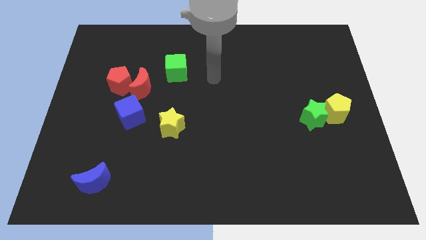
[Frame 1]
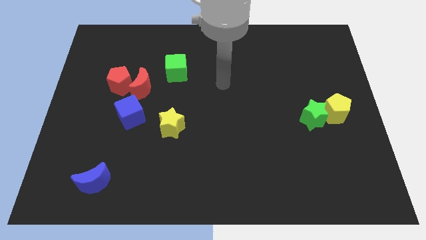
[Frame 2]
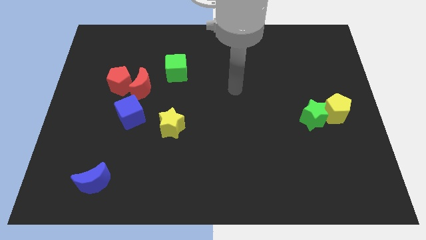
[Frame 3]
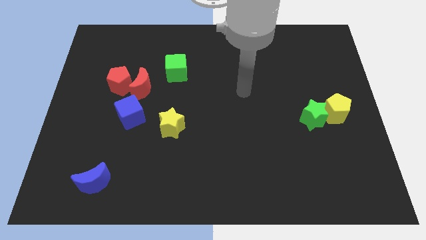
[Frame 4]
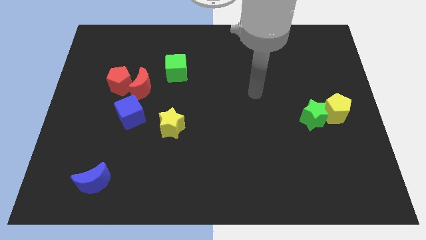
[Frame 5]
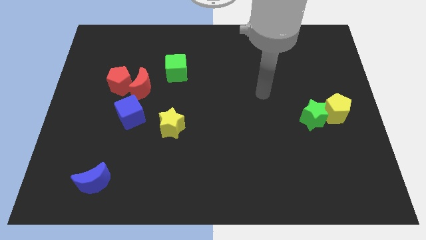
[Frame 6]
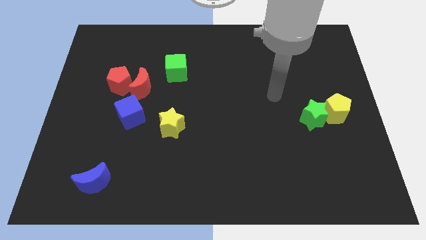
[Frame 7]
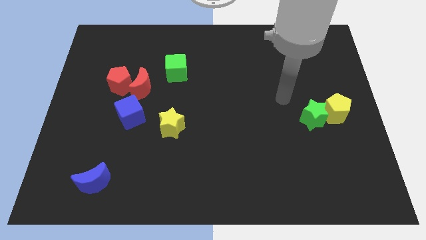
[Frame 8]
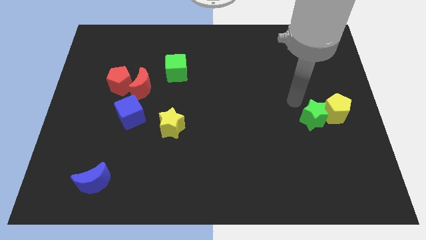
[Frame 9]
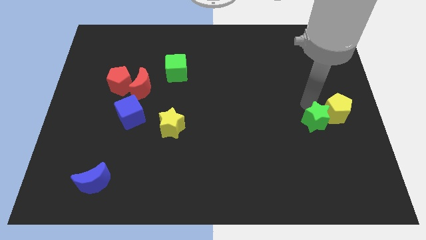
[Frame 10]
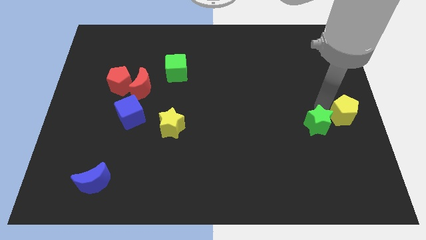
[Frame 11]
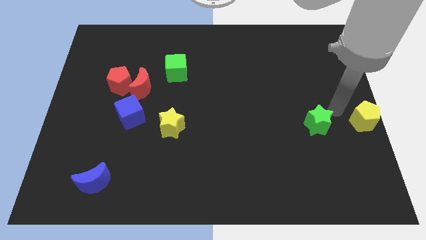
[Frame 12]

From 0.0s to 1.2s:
pull the green star apart from the yellow pentagon

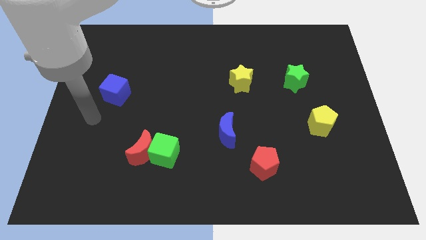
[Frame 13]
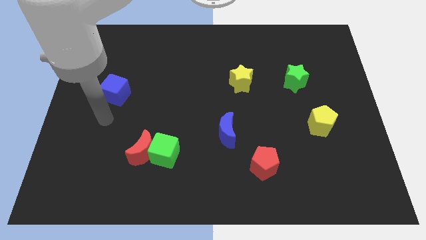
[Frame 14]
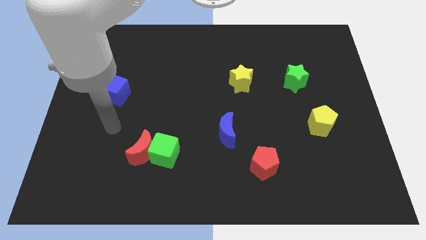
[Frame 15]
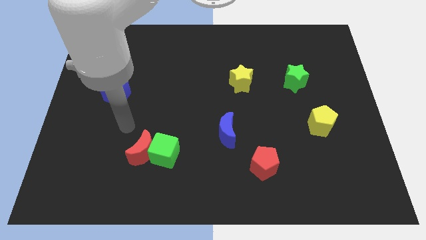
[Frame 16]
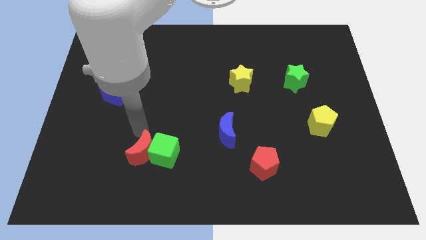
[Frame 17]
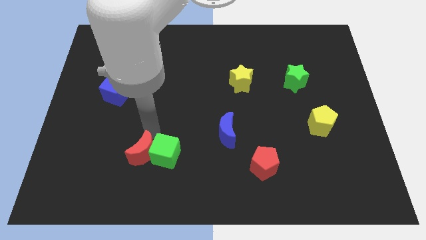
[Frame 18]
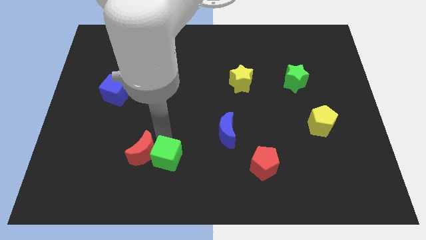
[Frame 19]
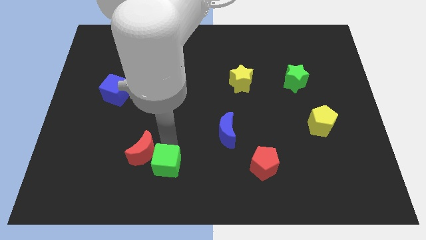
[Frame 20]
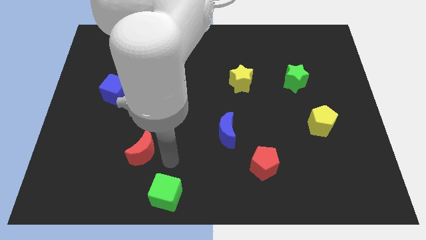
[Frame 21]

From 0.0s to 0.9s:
separate the red moon from the green cube

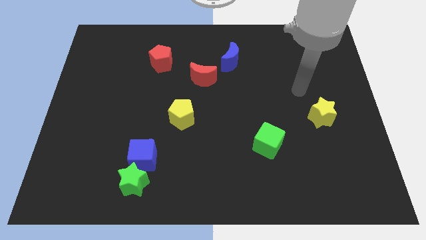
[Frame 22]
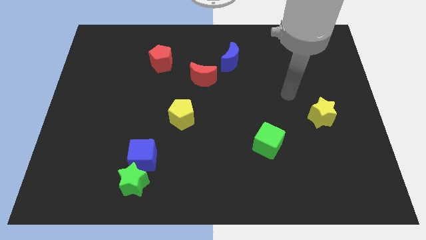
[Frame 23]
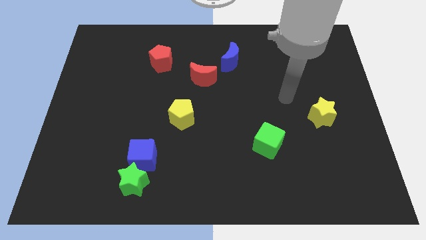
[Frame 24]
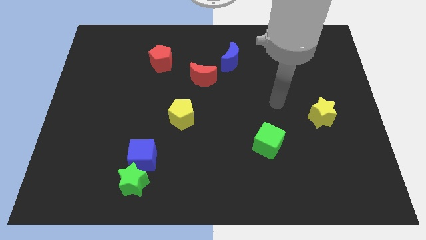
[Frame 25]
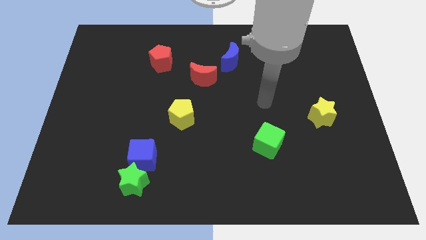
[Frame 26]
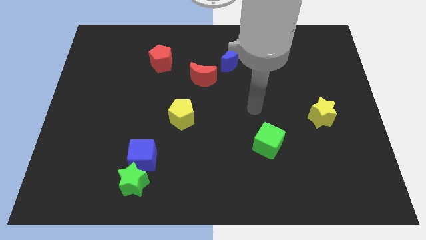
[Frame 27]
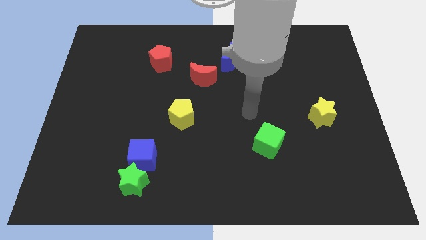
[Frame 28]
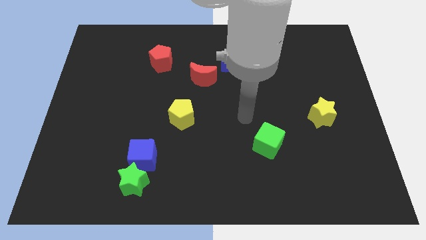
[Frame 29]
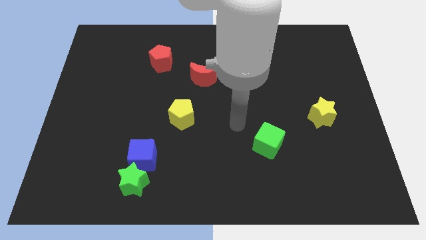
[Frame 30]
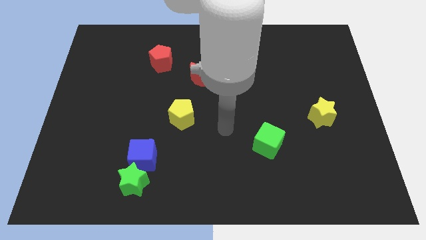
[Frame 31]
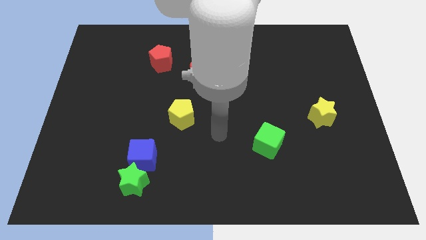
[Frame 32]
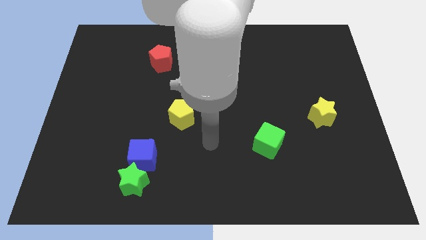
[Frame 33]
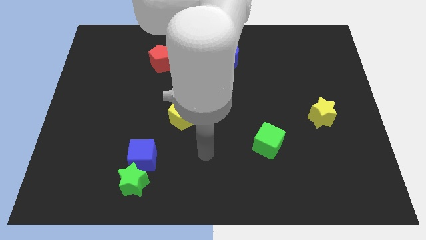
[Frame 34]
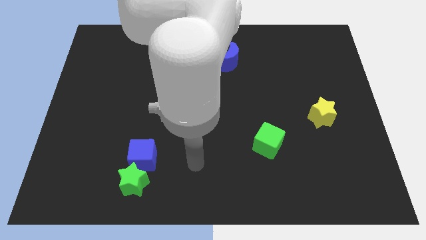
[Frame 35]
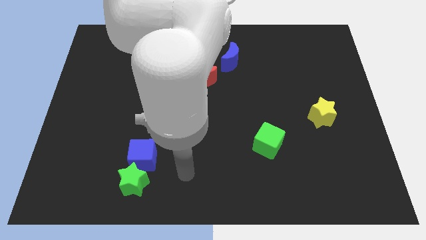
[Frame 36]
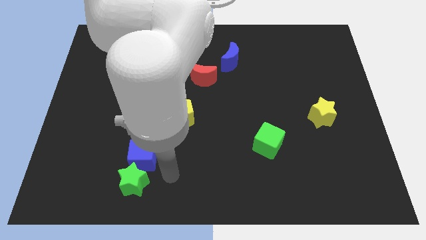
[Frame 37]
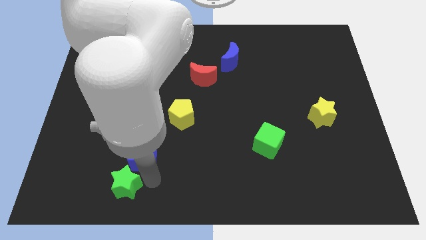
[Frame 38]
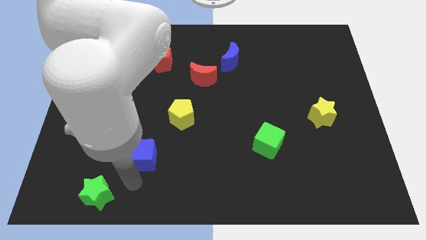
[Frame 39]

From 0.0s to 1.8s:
pull the blue cube apart from the green star

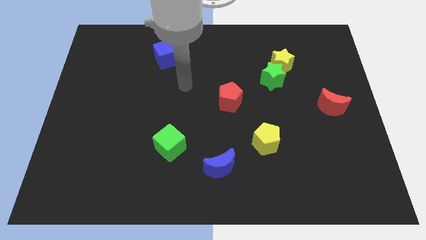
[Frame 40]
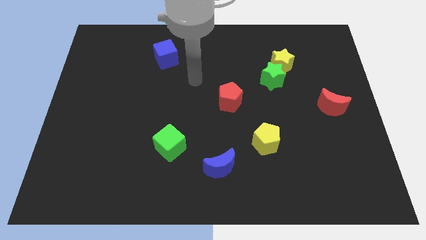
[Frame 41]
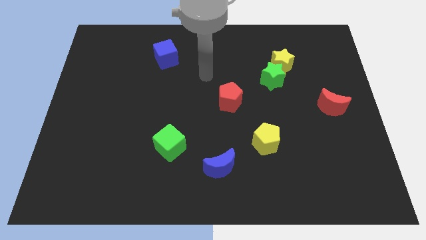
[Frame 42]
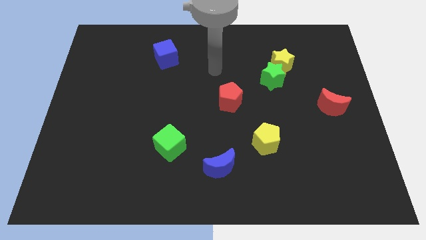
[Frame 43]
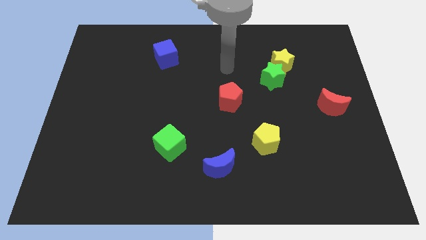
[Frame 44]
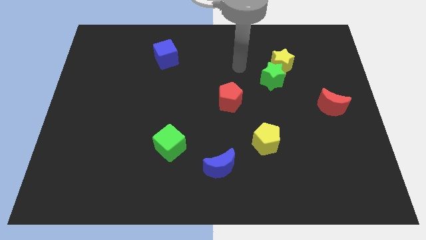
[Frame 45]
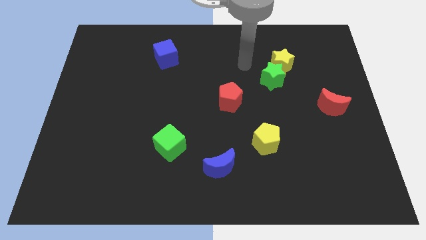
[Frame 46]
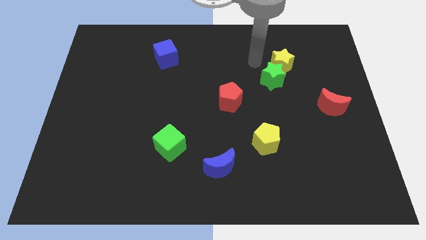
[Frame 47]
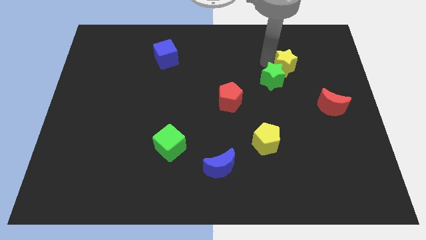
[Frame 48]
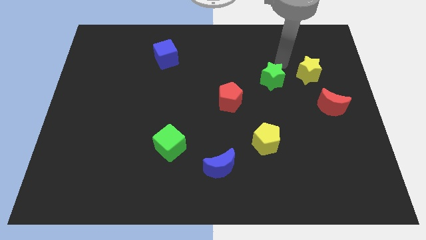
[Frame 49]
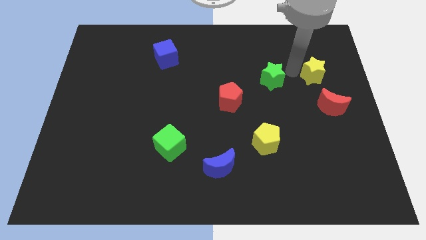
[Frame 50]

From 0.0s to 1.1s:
separate the green star from the yellow star

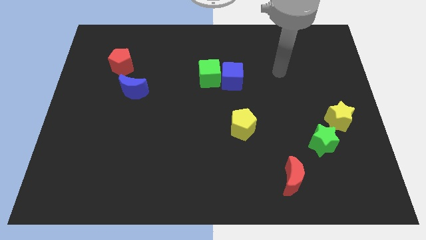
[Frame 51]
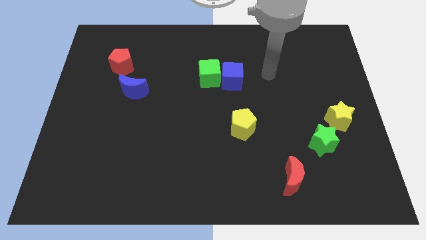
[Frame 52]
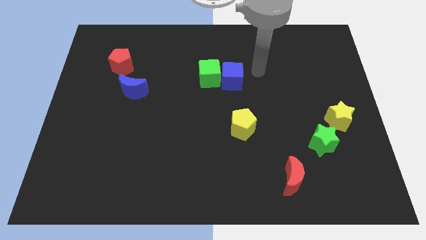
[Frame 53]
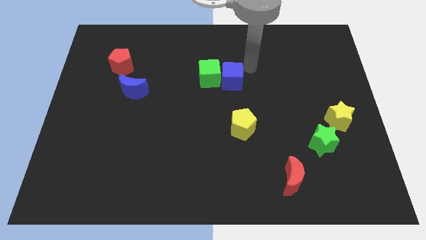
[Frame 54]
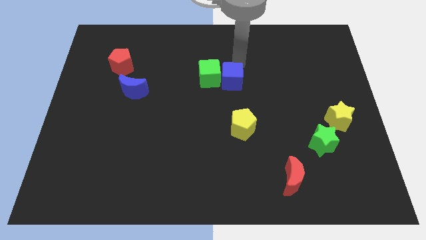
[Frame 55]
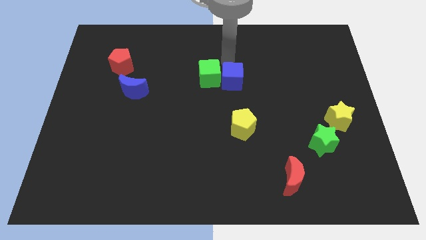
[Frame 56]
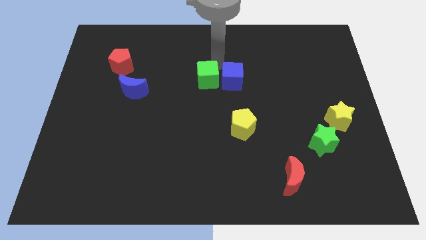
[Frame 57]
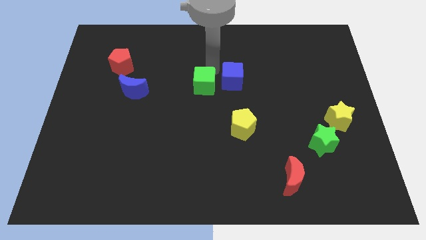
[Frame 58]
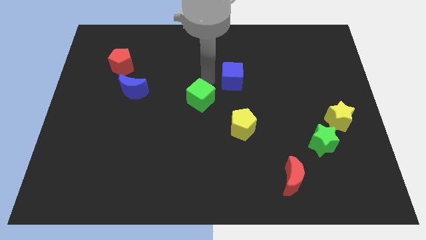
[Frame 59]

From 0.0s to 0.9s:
separate the blue cube from the green cube

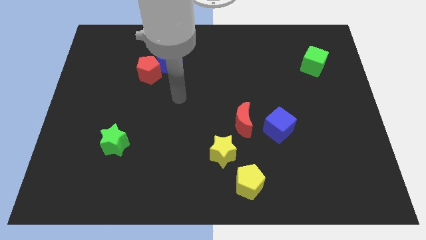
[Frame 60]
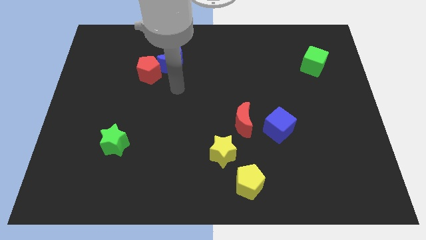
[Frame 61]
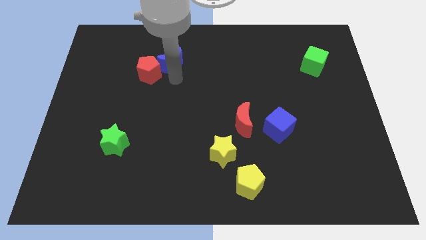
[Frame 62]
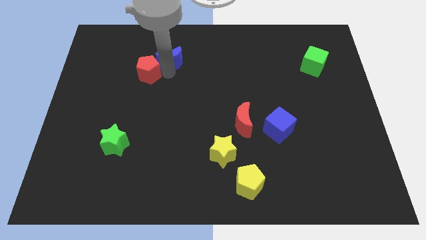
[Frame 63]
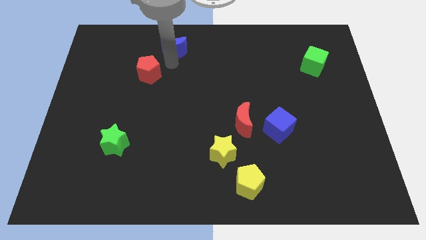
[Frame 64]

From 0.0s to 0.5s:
move the red pentagon away from the blue moon

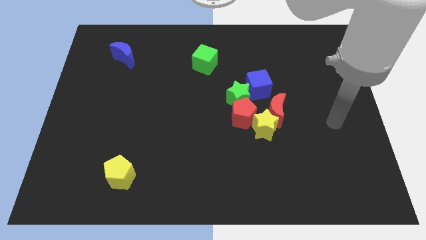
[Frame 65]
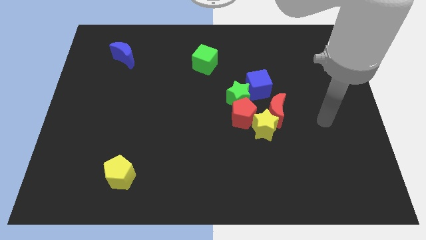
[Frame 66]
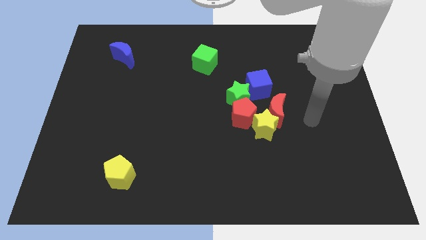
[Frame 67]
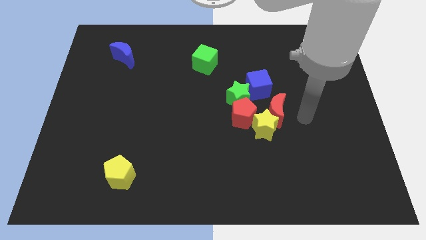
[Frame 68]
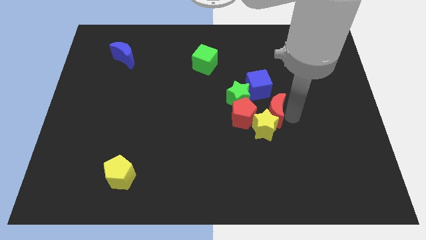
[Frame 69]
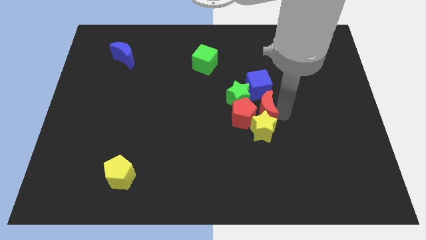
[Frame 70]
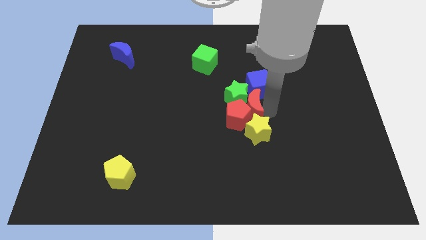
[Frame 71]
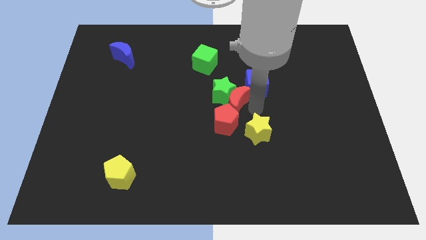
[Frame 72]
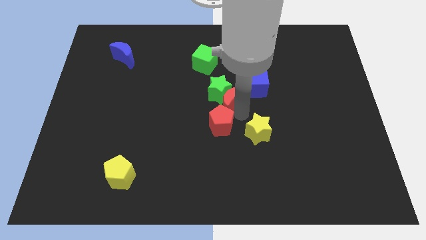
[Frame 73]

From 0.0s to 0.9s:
pull the yellow star apart from the red moon, red pentagon, and green star

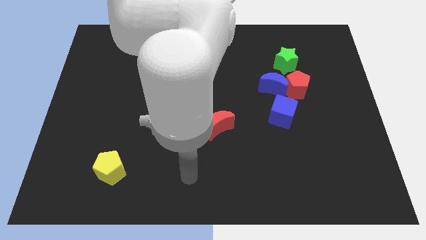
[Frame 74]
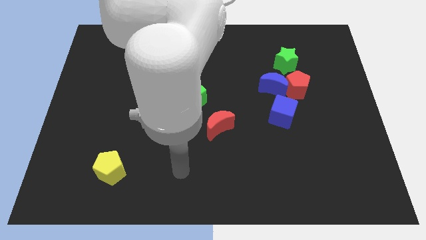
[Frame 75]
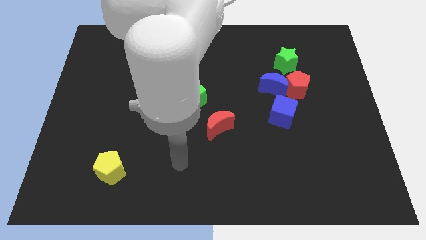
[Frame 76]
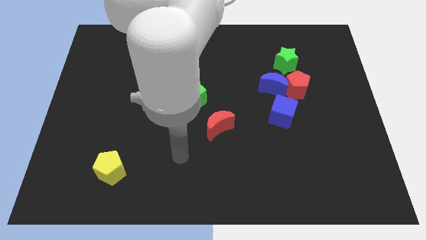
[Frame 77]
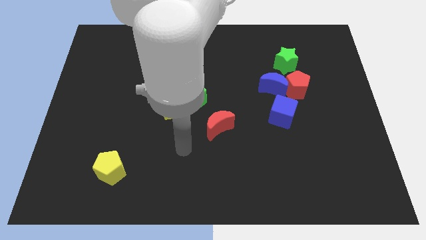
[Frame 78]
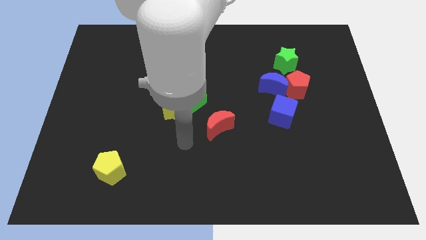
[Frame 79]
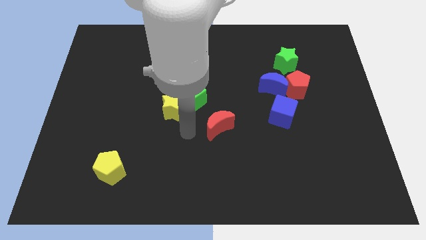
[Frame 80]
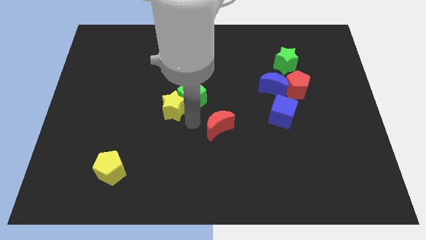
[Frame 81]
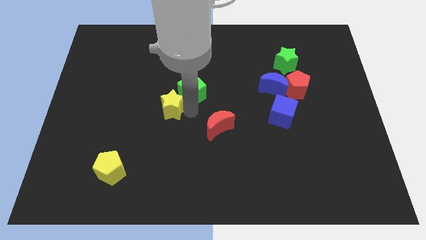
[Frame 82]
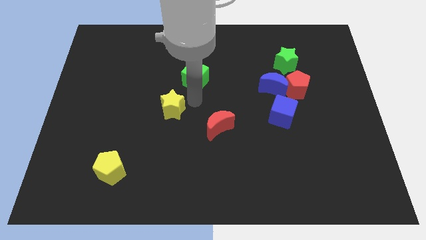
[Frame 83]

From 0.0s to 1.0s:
separate the yellow star from the green cube

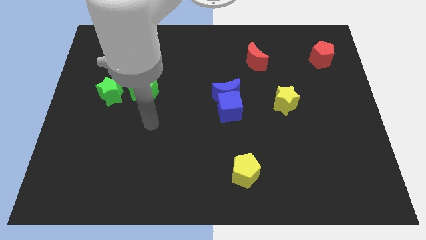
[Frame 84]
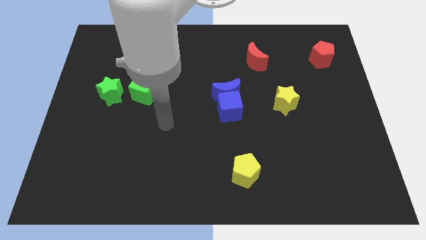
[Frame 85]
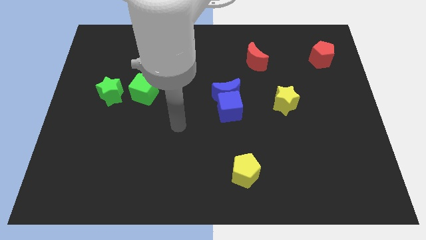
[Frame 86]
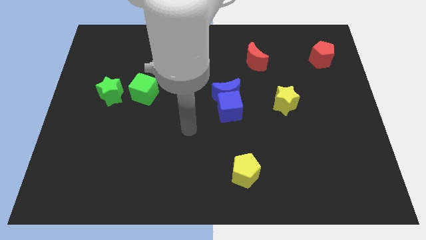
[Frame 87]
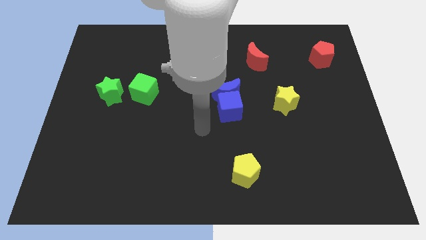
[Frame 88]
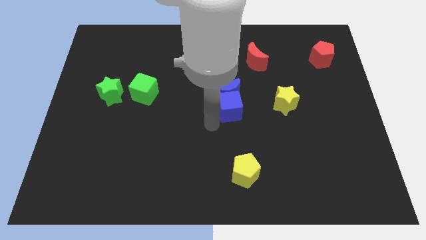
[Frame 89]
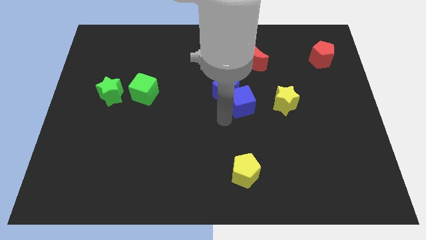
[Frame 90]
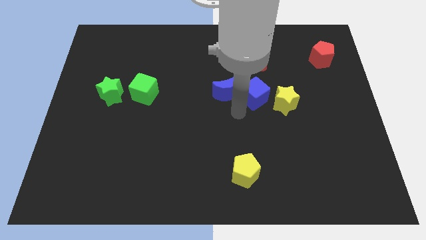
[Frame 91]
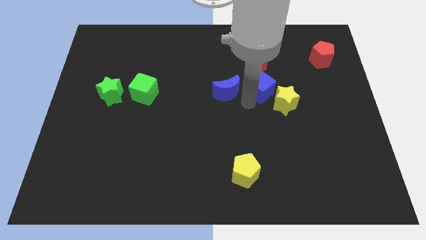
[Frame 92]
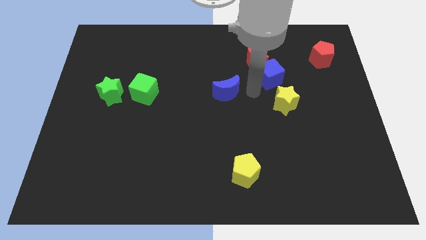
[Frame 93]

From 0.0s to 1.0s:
pull the blue moon apart from the blue cube

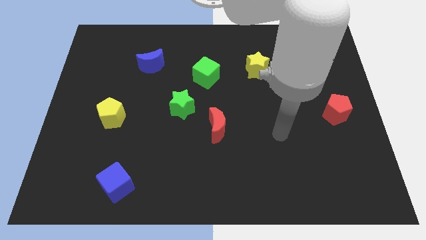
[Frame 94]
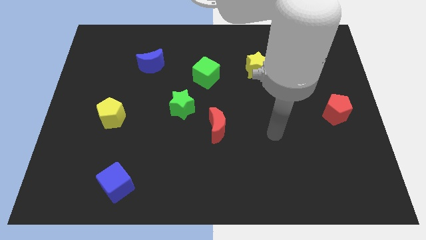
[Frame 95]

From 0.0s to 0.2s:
move the red moon away from the green star
